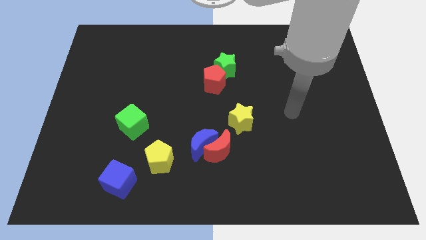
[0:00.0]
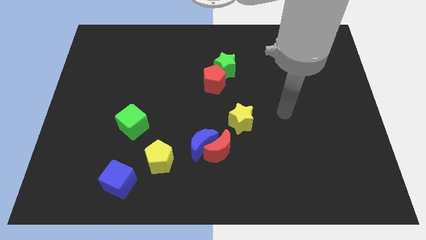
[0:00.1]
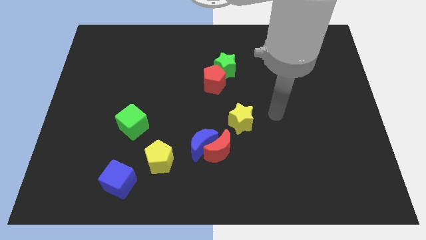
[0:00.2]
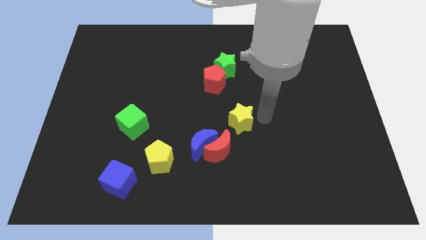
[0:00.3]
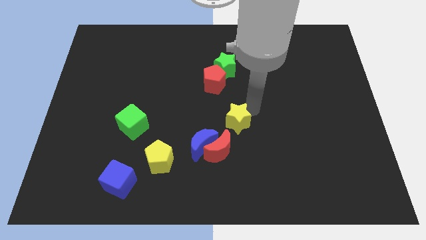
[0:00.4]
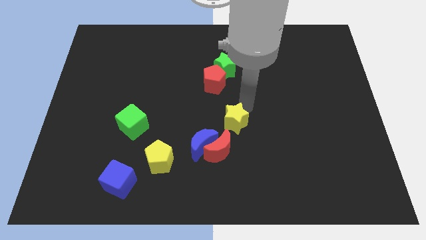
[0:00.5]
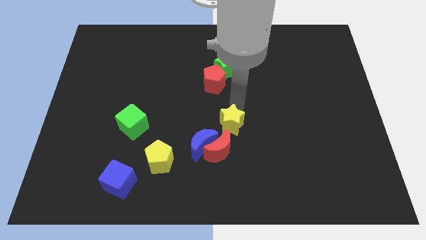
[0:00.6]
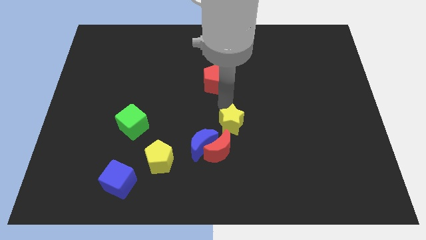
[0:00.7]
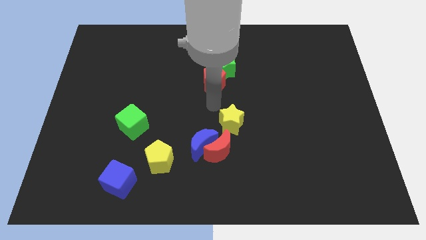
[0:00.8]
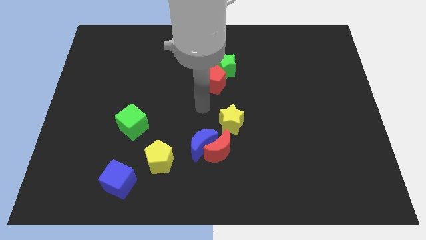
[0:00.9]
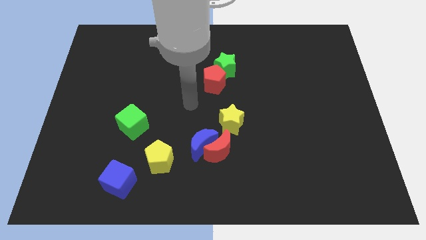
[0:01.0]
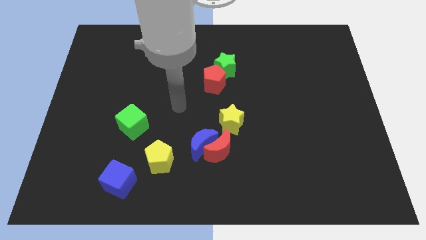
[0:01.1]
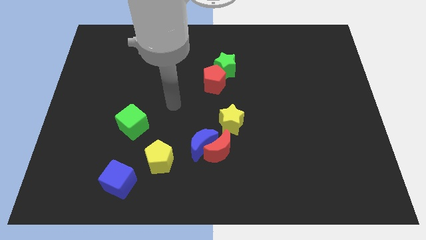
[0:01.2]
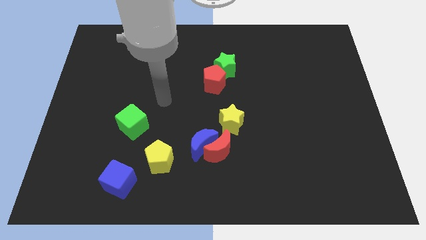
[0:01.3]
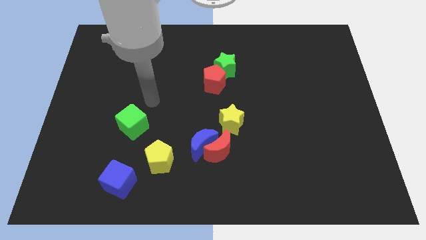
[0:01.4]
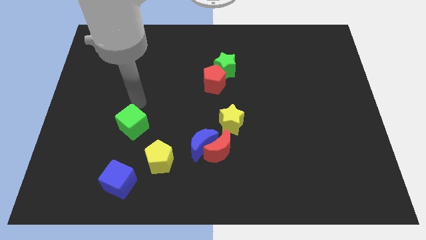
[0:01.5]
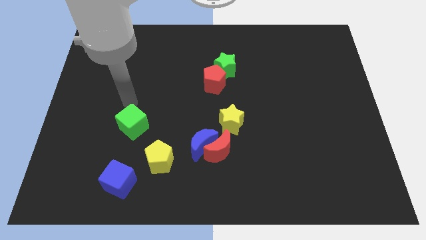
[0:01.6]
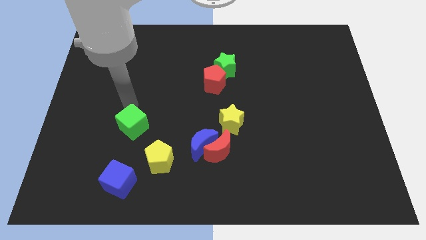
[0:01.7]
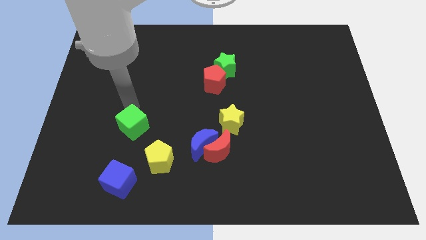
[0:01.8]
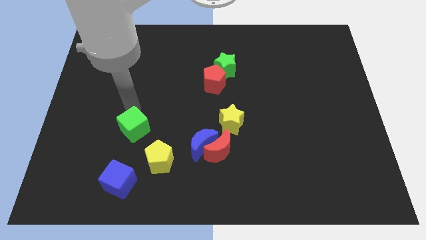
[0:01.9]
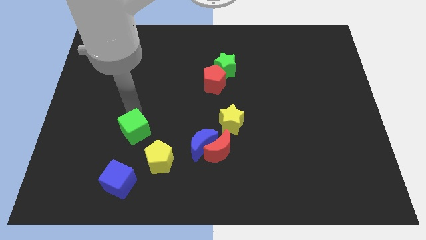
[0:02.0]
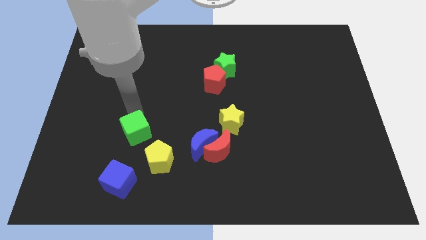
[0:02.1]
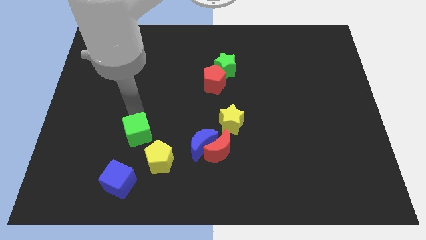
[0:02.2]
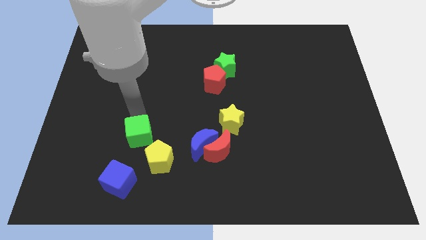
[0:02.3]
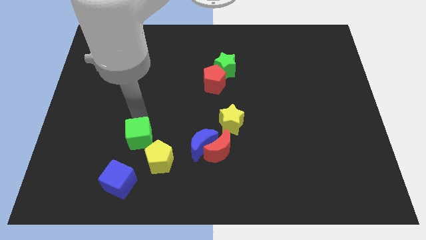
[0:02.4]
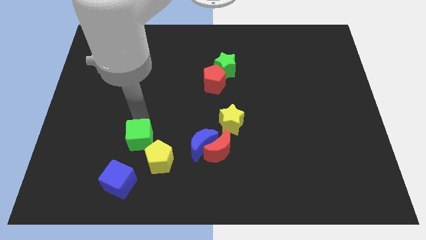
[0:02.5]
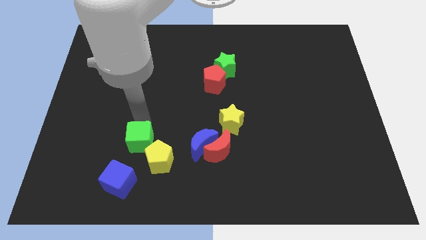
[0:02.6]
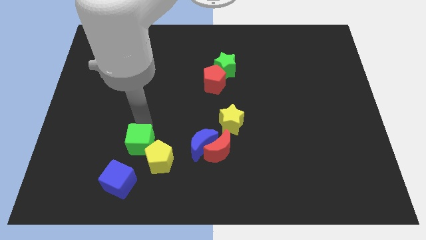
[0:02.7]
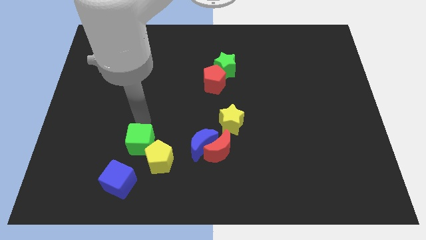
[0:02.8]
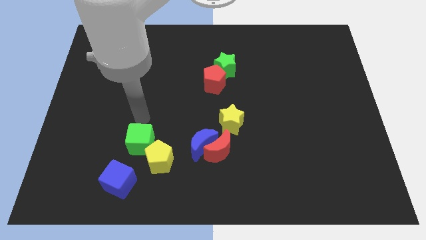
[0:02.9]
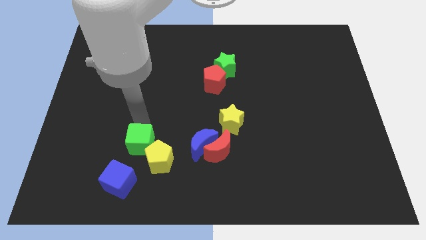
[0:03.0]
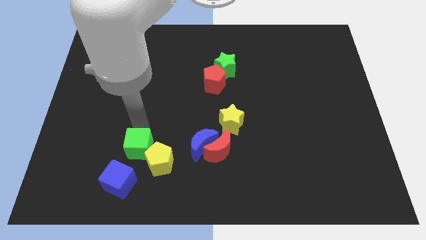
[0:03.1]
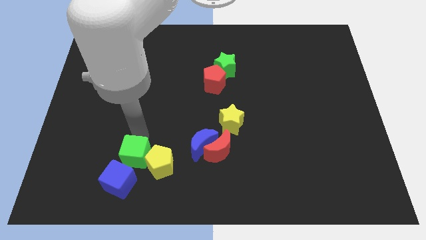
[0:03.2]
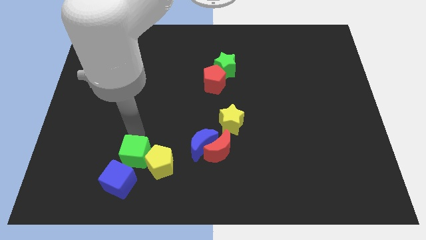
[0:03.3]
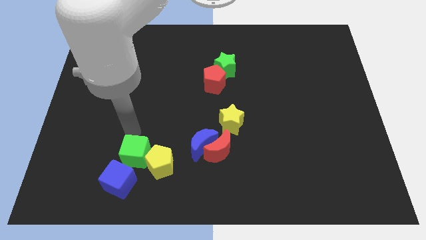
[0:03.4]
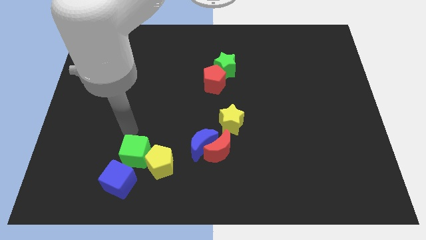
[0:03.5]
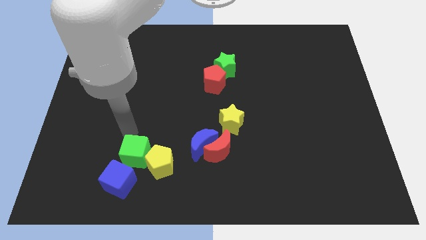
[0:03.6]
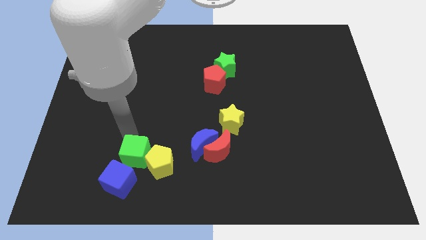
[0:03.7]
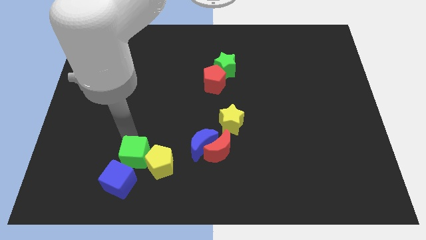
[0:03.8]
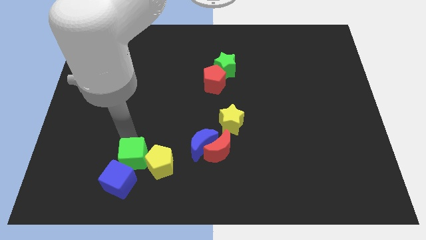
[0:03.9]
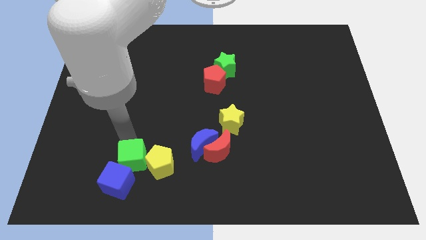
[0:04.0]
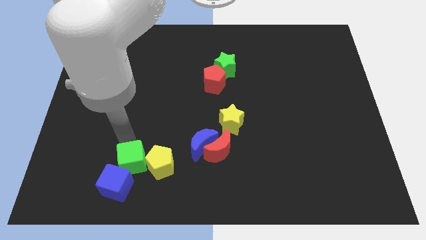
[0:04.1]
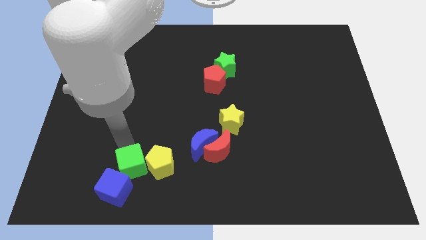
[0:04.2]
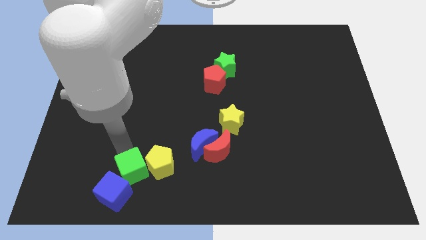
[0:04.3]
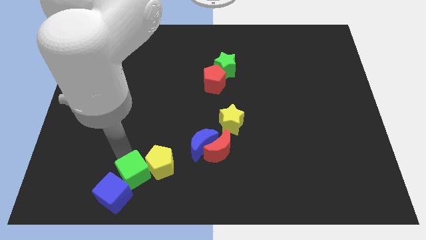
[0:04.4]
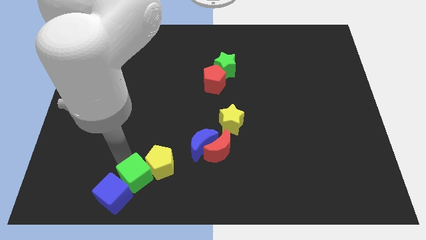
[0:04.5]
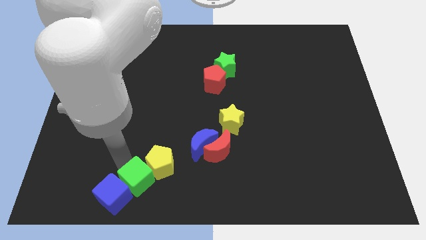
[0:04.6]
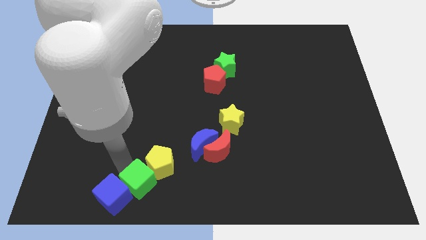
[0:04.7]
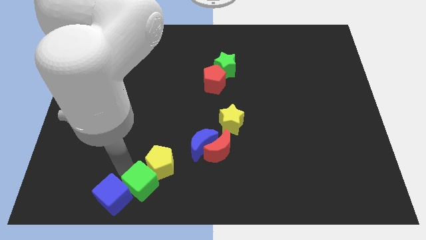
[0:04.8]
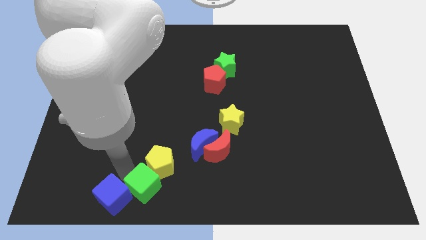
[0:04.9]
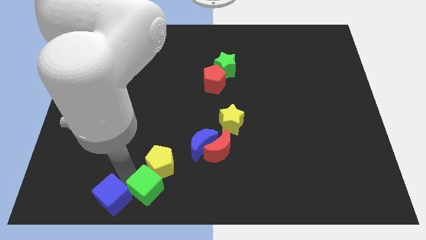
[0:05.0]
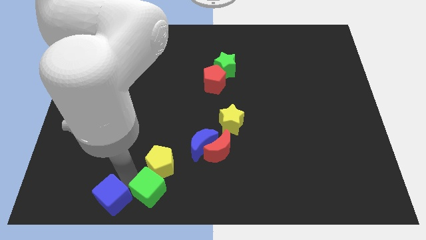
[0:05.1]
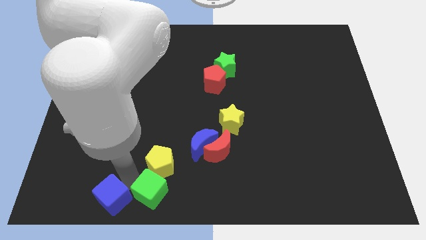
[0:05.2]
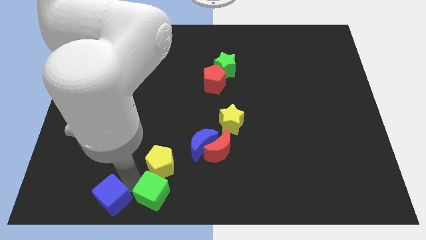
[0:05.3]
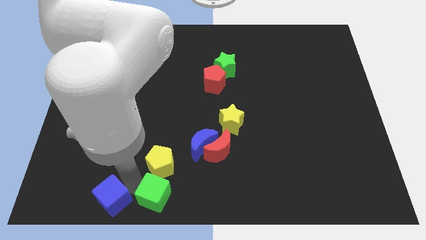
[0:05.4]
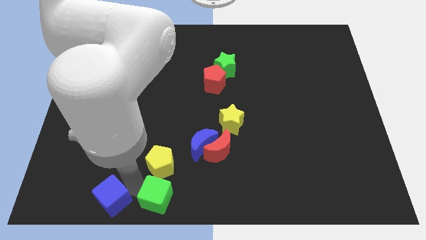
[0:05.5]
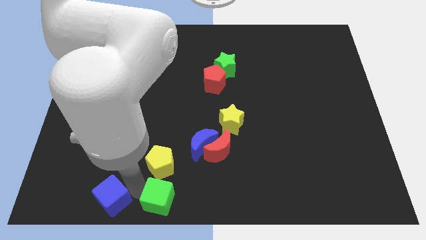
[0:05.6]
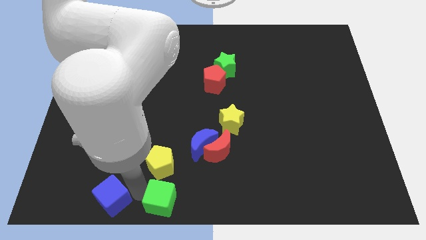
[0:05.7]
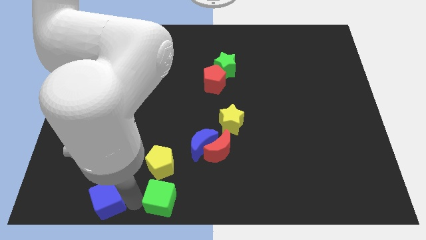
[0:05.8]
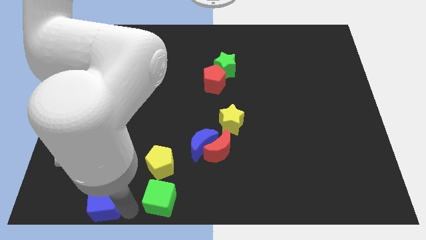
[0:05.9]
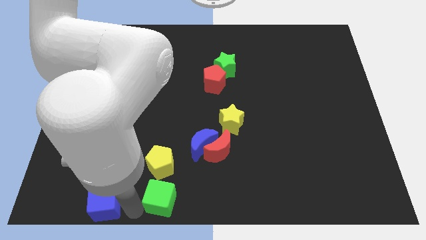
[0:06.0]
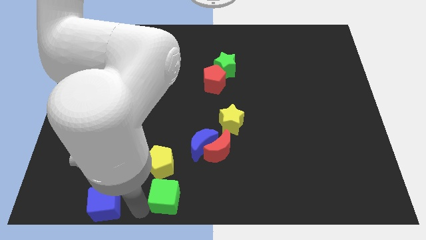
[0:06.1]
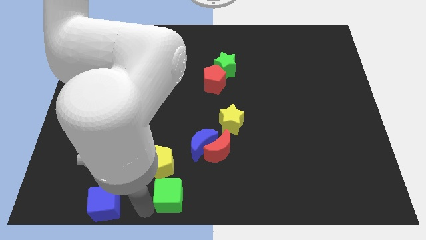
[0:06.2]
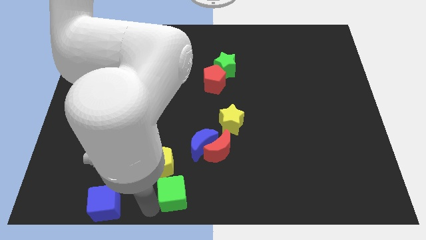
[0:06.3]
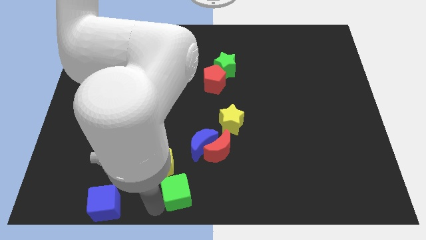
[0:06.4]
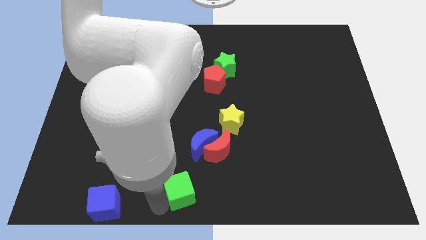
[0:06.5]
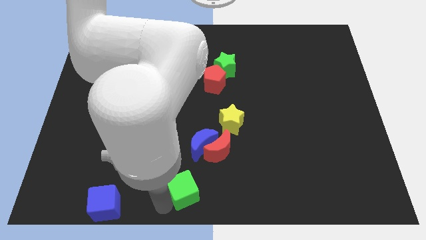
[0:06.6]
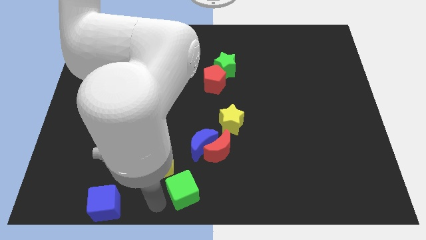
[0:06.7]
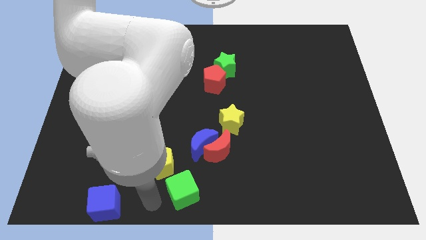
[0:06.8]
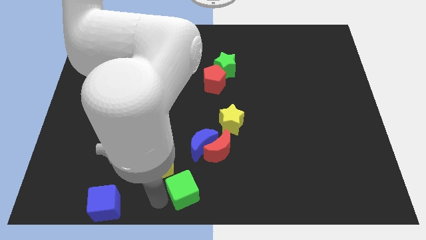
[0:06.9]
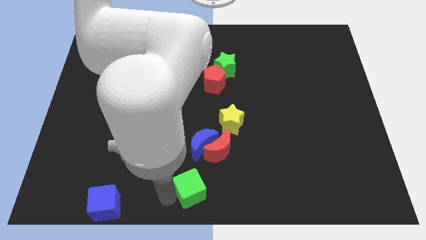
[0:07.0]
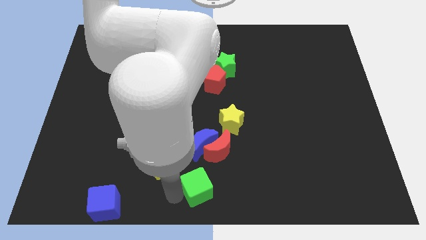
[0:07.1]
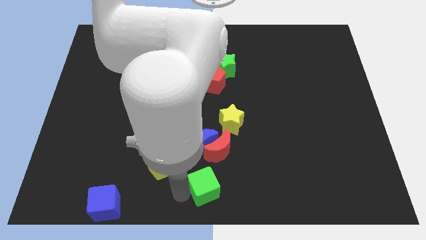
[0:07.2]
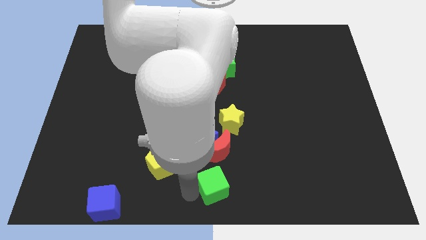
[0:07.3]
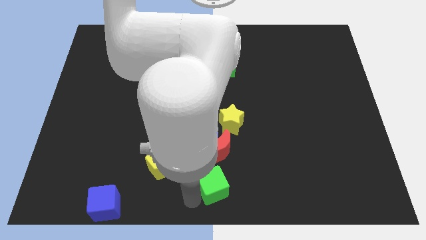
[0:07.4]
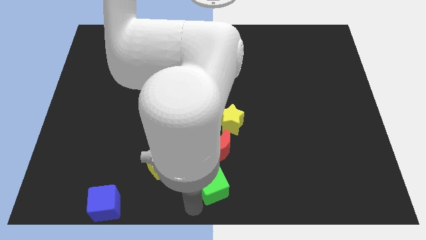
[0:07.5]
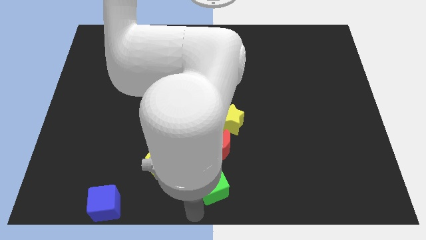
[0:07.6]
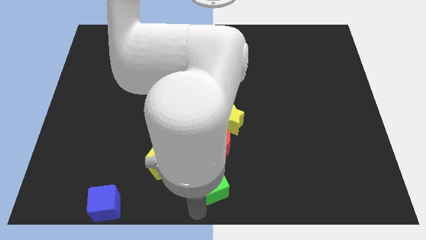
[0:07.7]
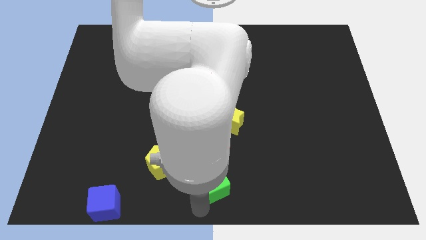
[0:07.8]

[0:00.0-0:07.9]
push the green cube to the bottom right of the blue moon

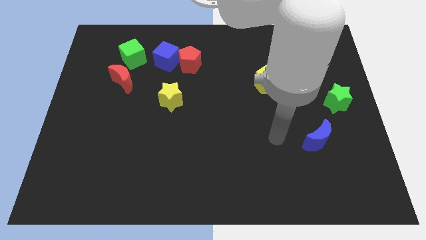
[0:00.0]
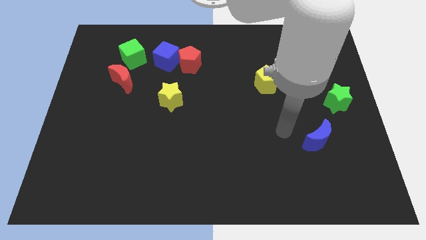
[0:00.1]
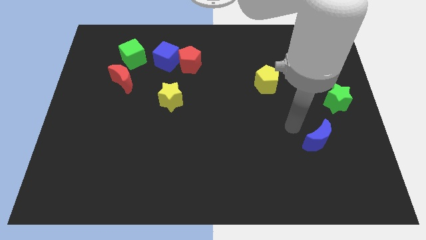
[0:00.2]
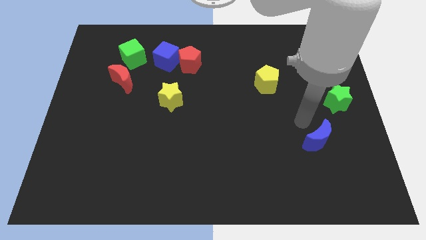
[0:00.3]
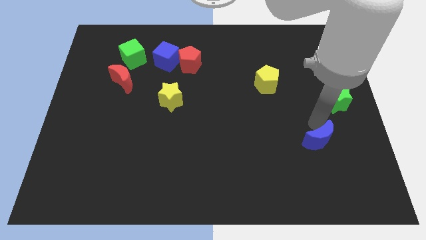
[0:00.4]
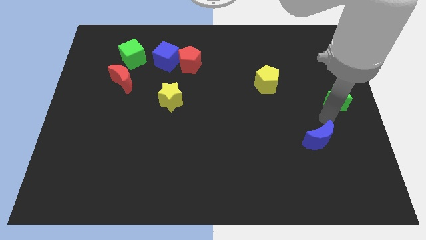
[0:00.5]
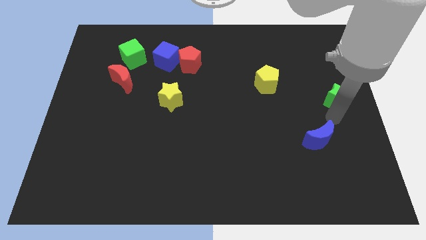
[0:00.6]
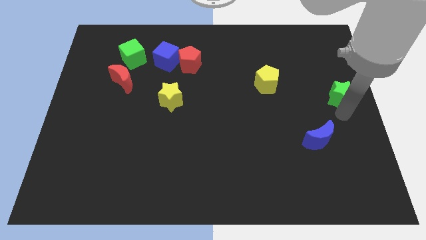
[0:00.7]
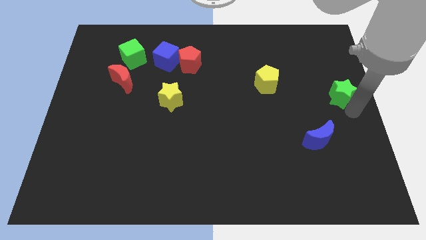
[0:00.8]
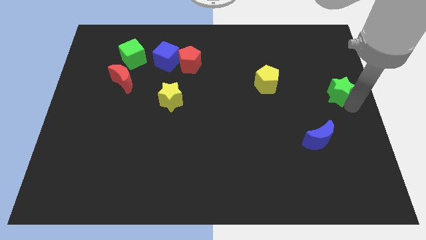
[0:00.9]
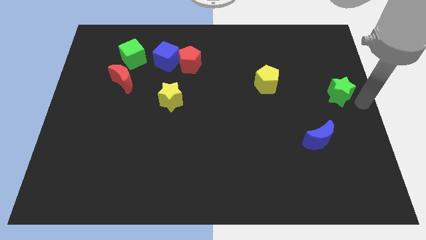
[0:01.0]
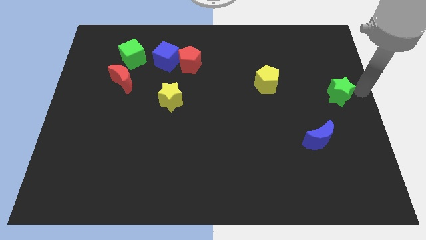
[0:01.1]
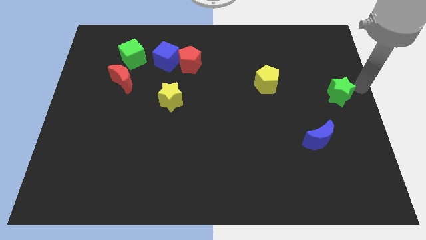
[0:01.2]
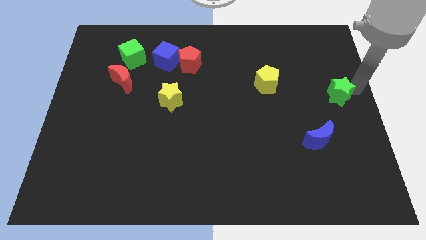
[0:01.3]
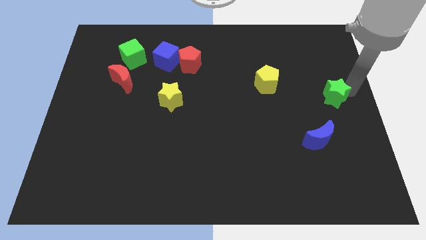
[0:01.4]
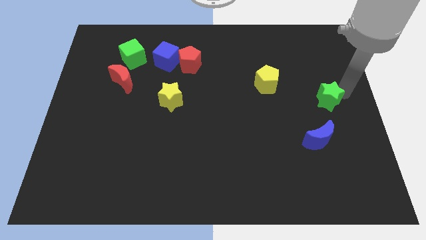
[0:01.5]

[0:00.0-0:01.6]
move the green star above the blue moon
